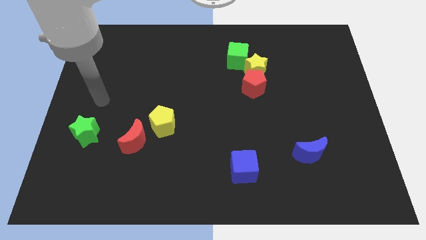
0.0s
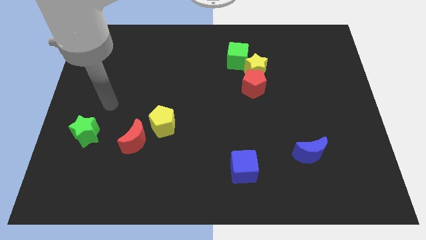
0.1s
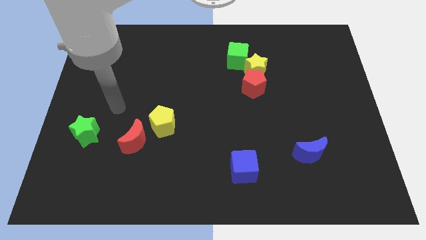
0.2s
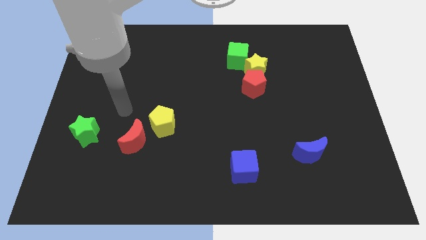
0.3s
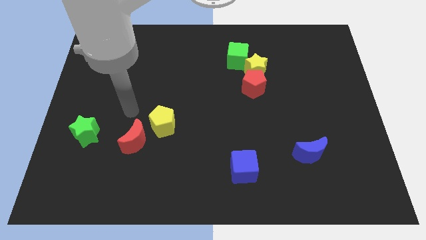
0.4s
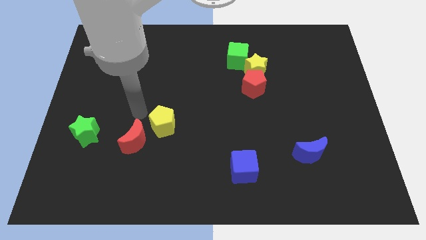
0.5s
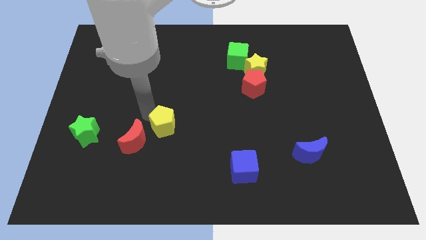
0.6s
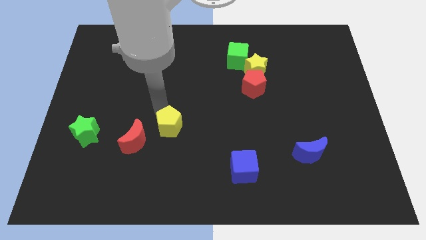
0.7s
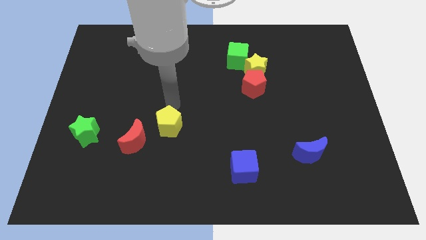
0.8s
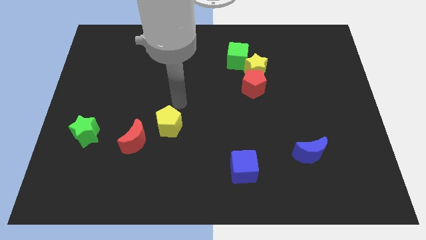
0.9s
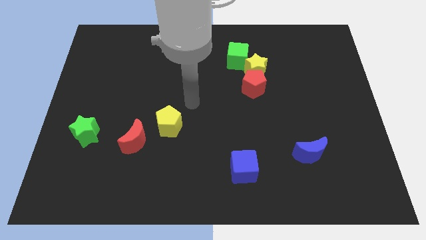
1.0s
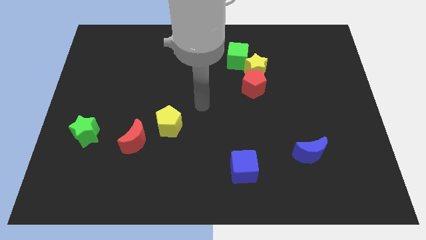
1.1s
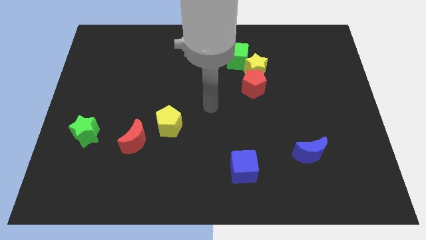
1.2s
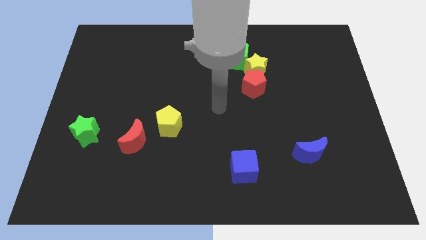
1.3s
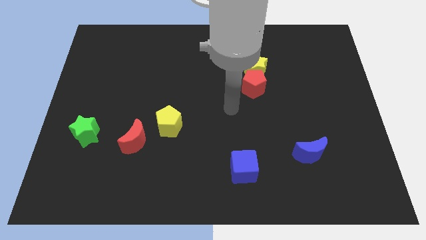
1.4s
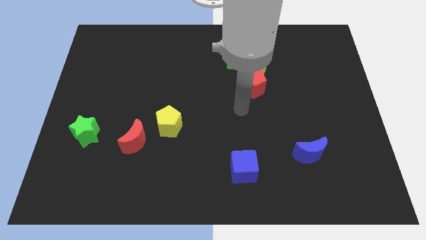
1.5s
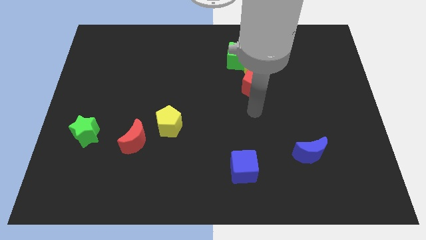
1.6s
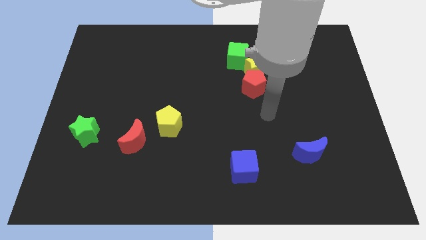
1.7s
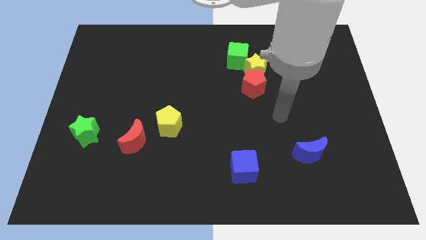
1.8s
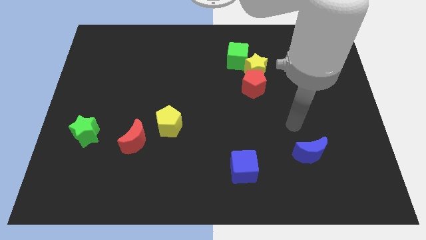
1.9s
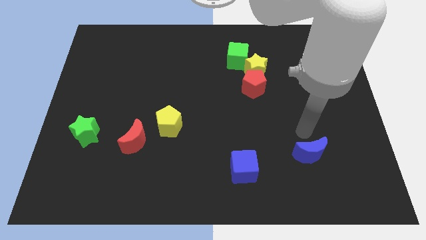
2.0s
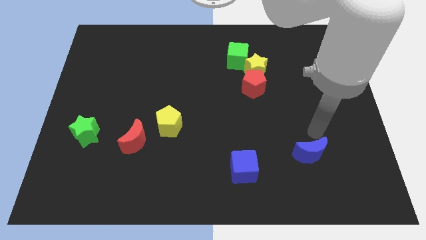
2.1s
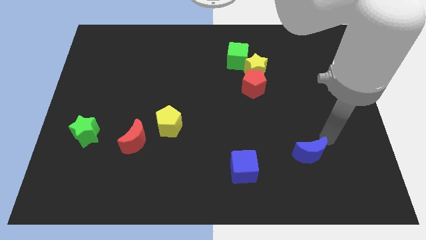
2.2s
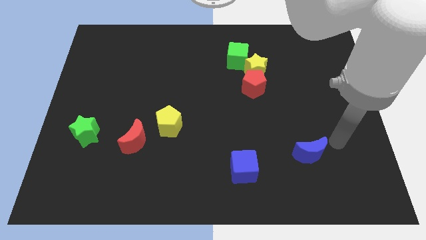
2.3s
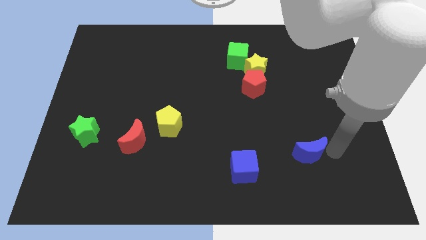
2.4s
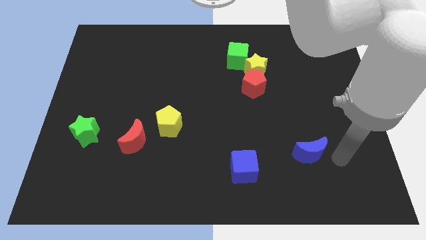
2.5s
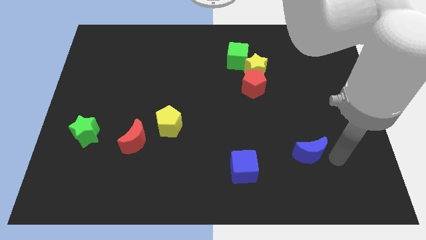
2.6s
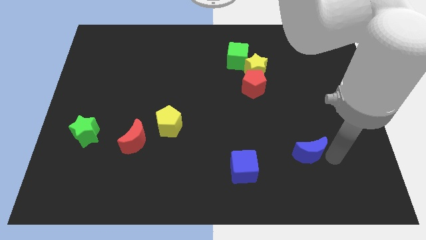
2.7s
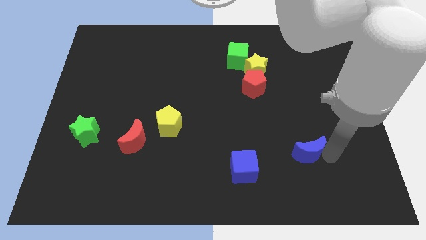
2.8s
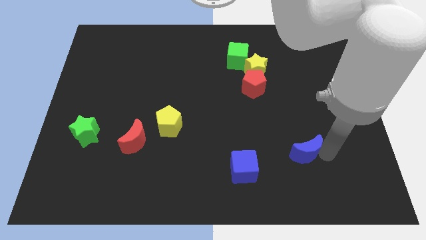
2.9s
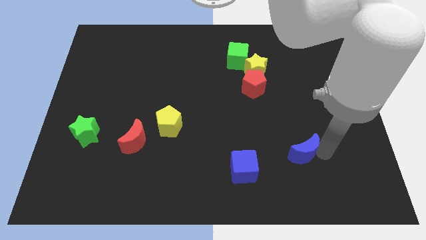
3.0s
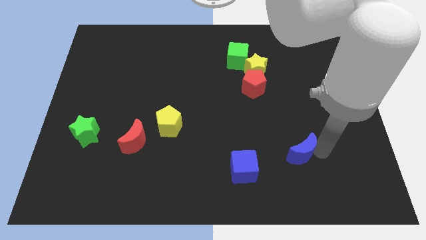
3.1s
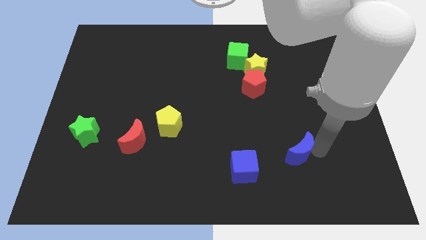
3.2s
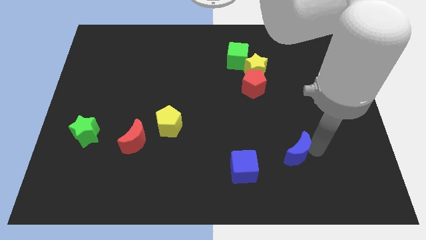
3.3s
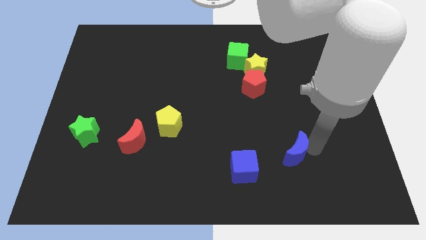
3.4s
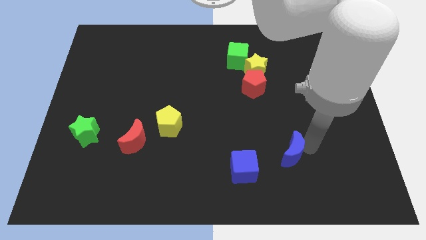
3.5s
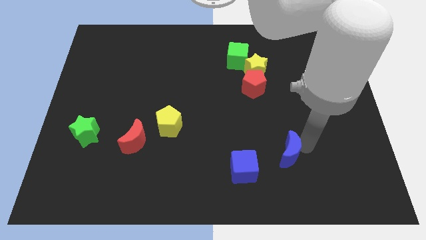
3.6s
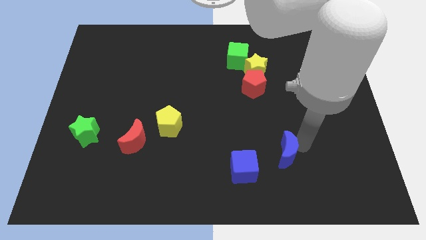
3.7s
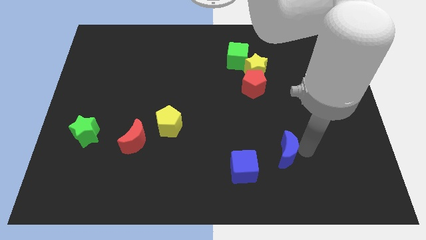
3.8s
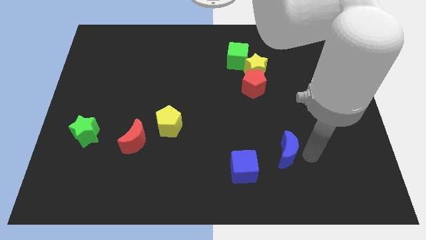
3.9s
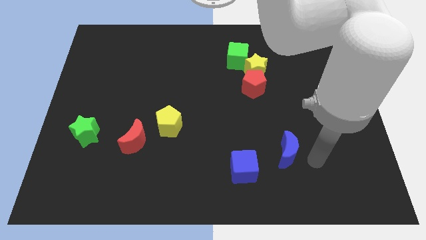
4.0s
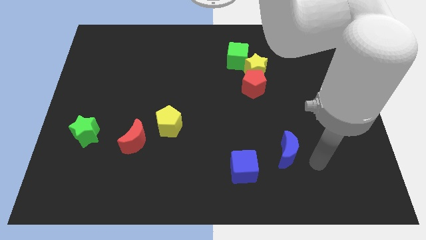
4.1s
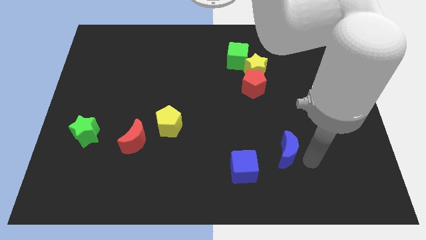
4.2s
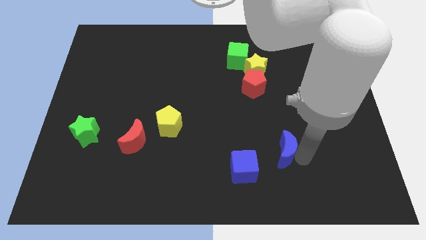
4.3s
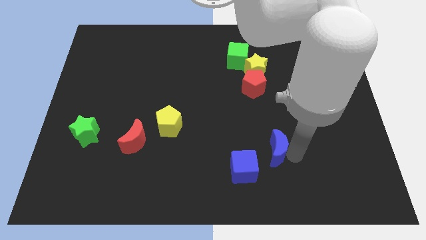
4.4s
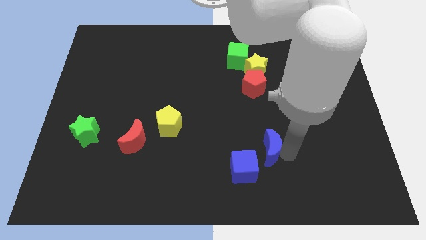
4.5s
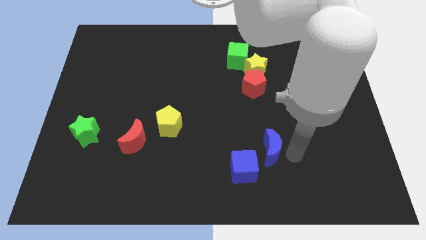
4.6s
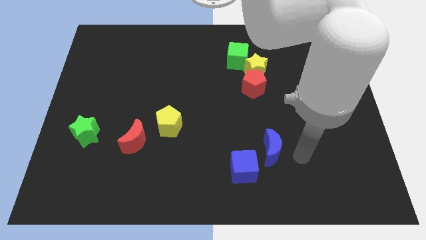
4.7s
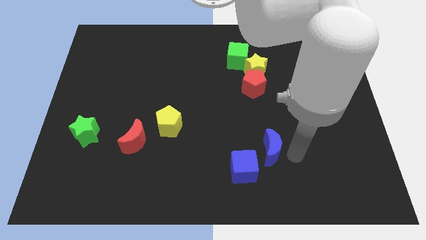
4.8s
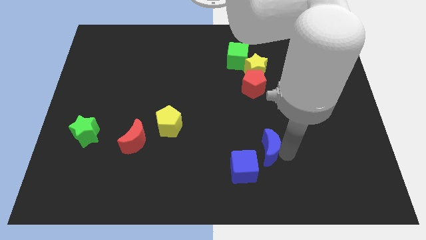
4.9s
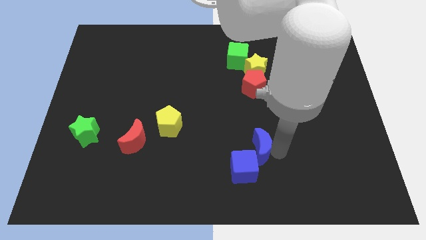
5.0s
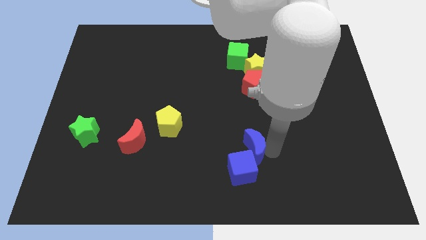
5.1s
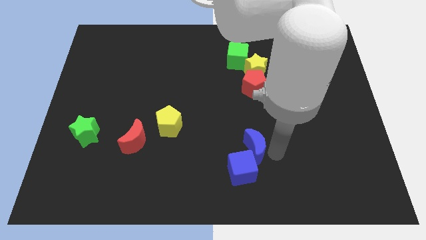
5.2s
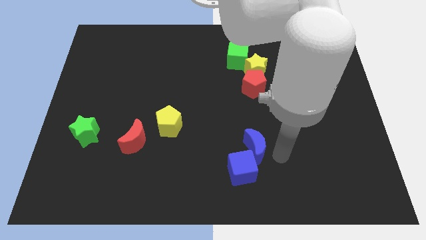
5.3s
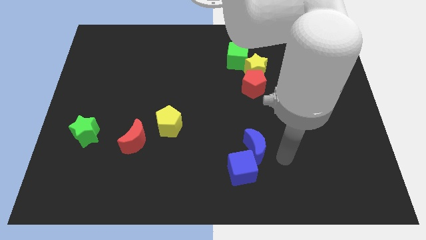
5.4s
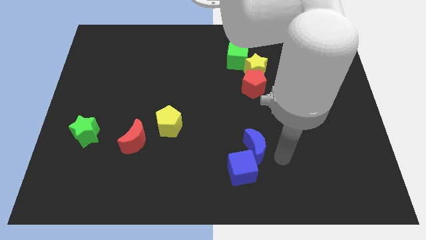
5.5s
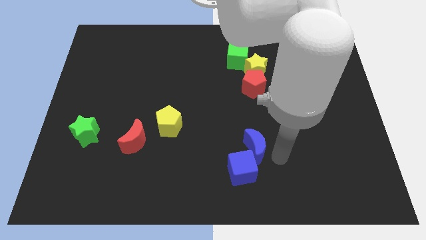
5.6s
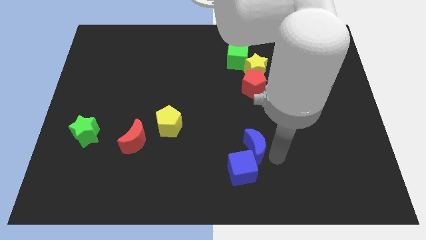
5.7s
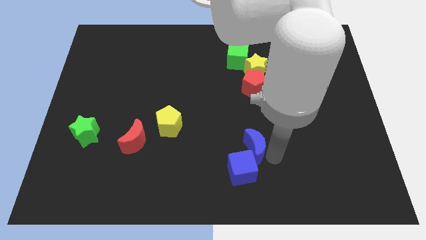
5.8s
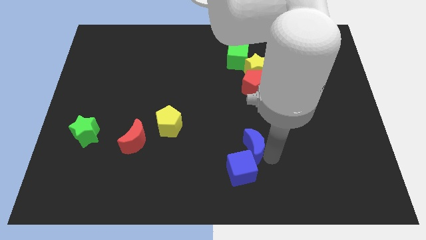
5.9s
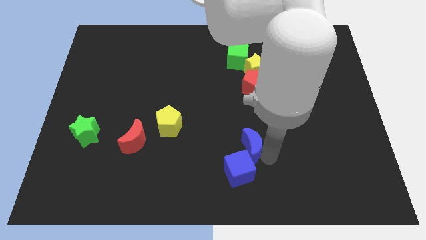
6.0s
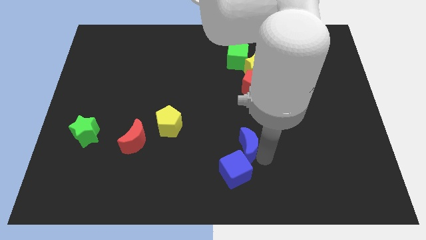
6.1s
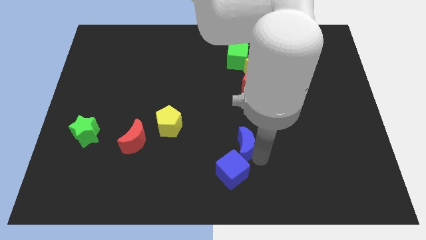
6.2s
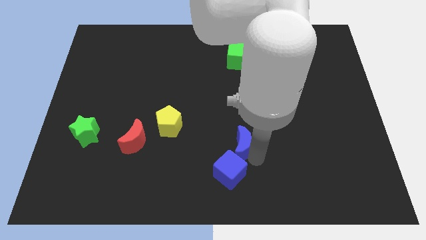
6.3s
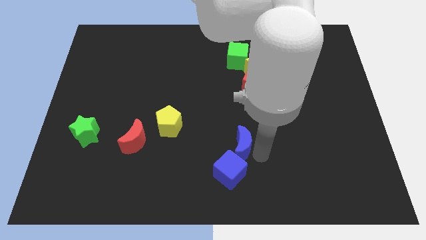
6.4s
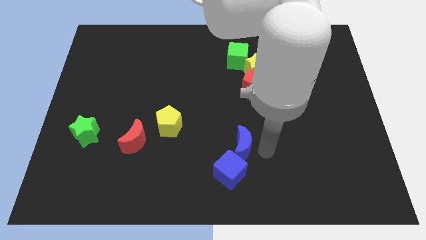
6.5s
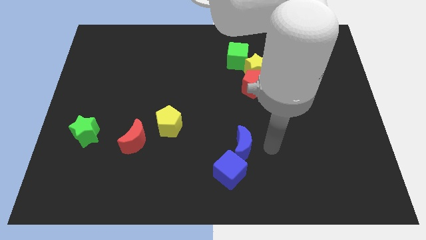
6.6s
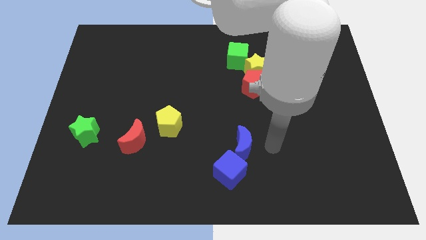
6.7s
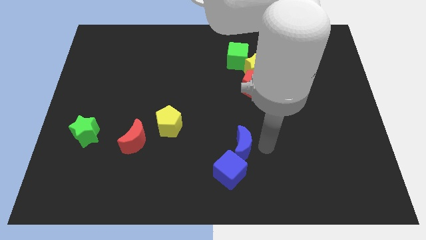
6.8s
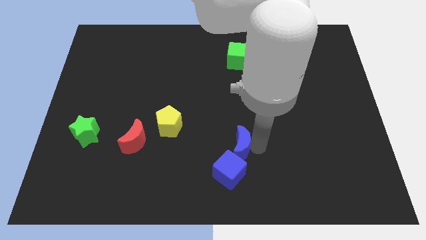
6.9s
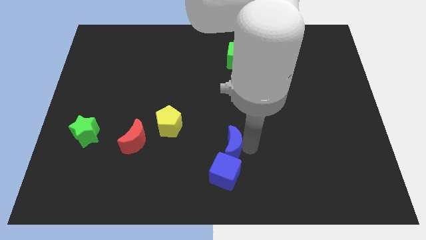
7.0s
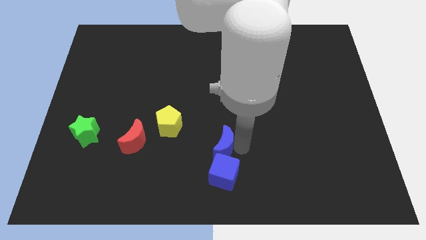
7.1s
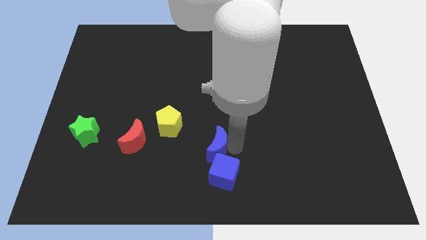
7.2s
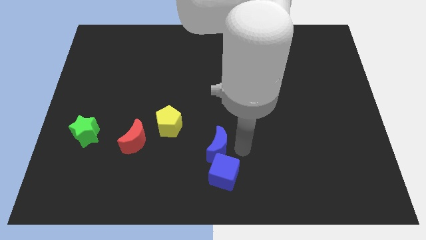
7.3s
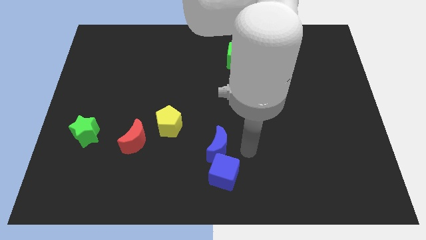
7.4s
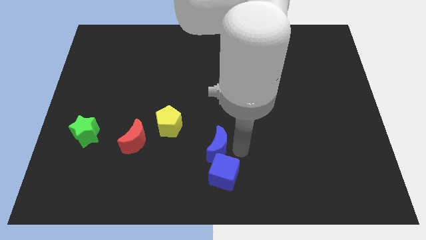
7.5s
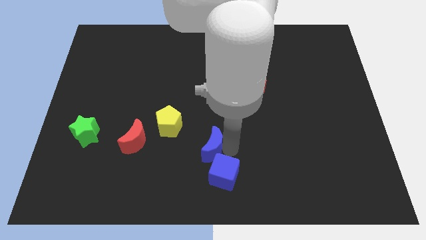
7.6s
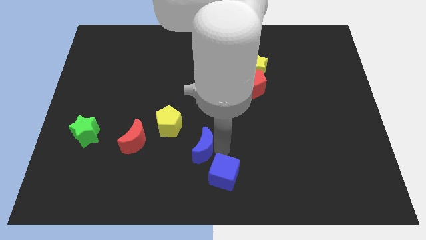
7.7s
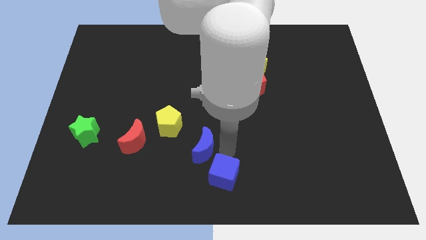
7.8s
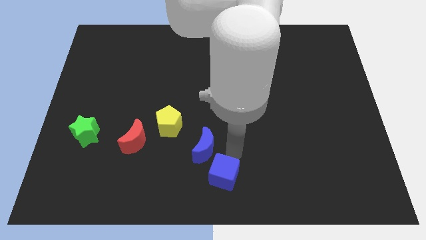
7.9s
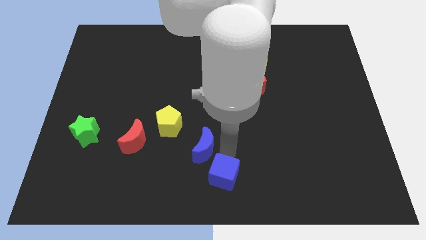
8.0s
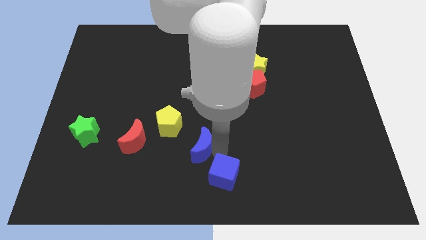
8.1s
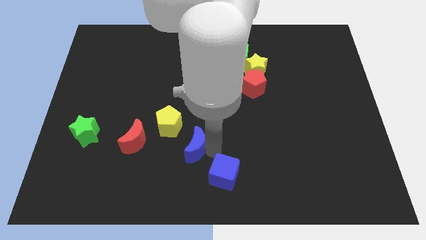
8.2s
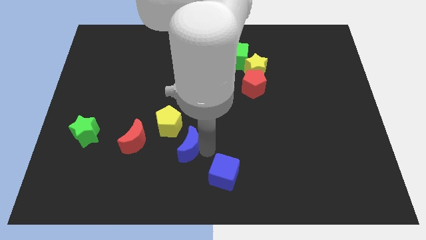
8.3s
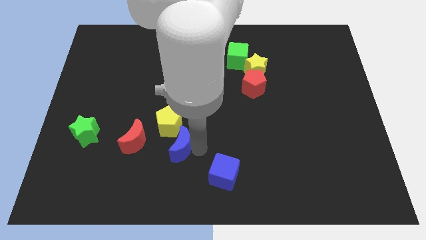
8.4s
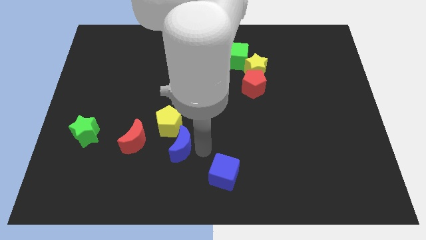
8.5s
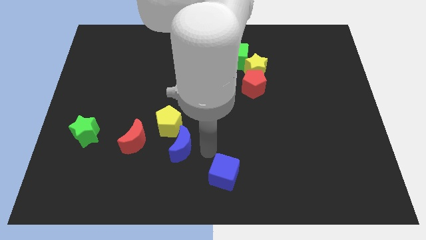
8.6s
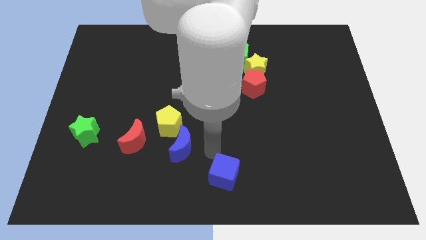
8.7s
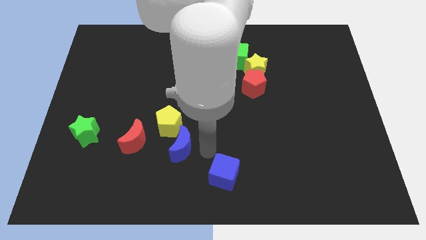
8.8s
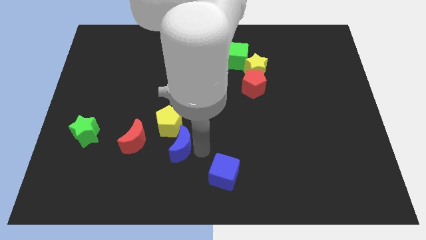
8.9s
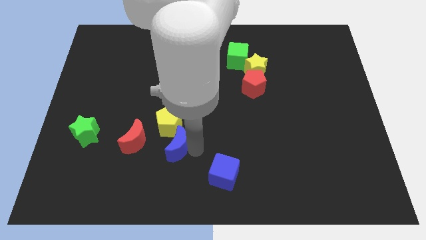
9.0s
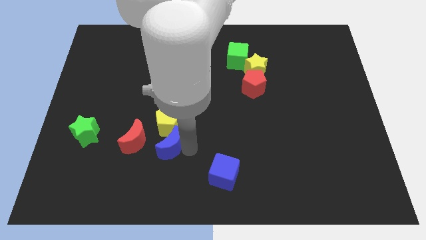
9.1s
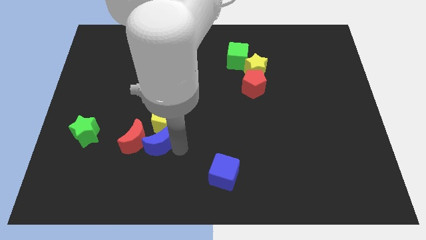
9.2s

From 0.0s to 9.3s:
move the blue moon next to the red moon
